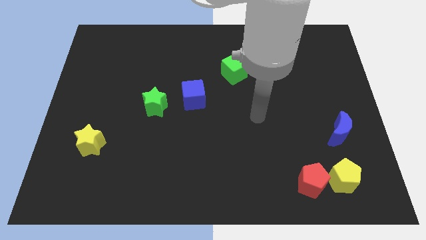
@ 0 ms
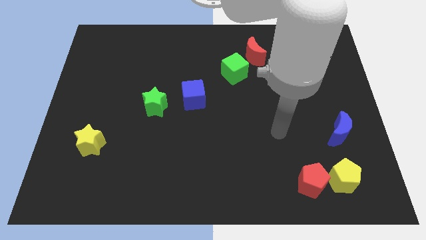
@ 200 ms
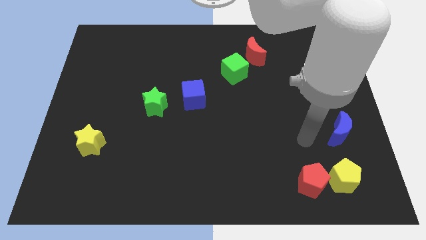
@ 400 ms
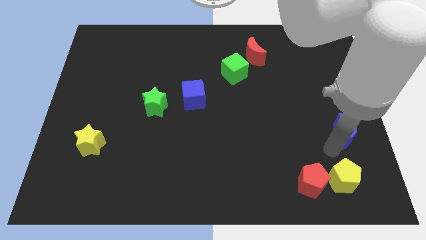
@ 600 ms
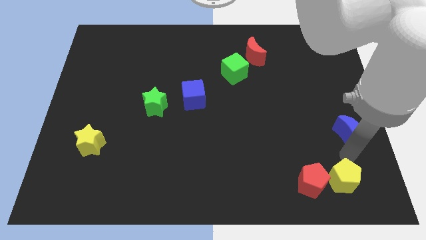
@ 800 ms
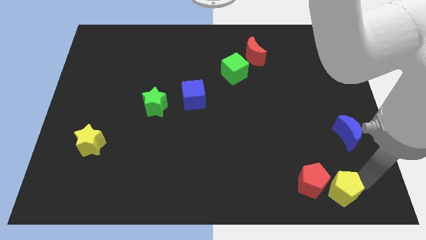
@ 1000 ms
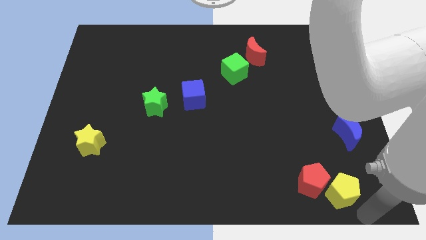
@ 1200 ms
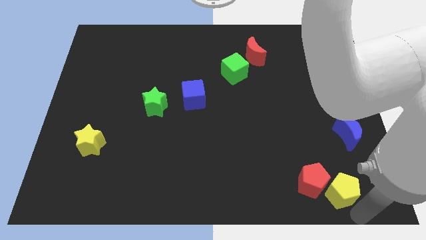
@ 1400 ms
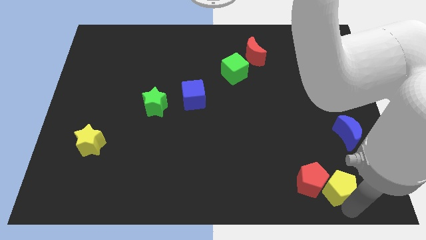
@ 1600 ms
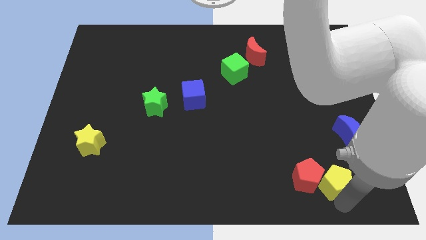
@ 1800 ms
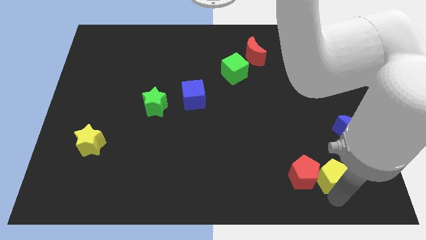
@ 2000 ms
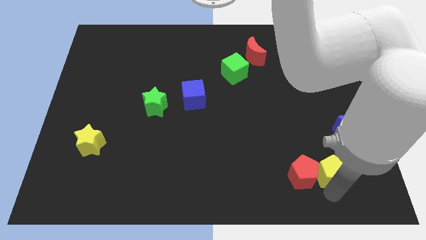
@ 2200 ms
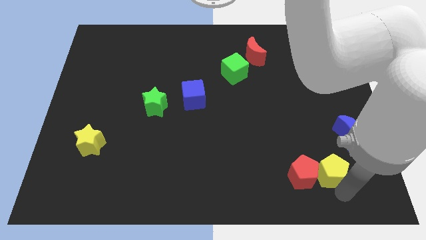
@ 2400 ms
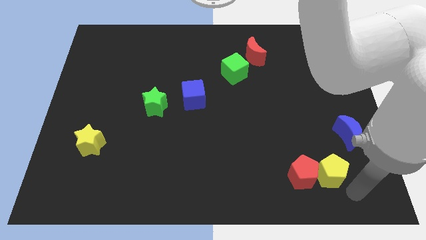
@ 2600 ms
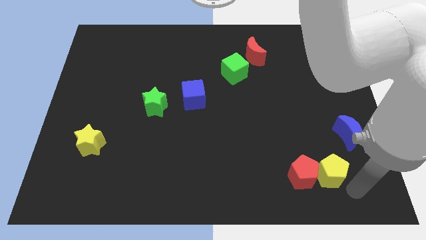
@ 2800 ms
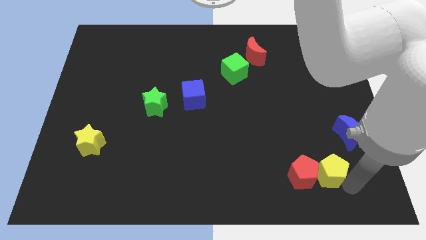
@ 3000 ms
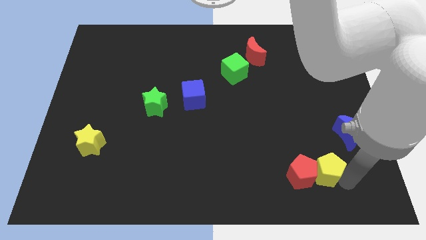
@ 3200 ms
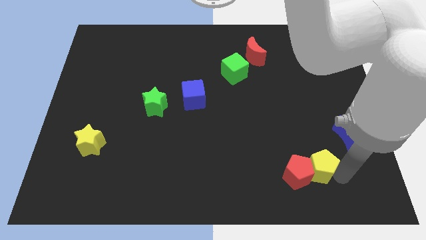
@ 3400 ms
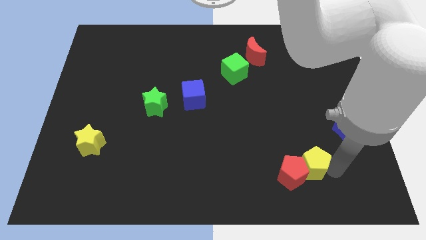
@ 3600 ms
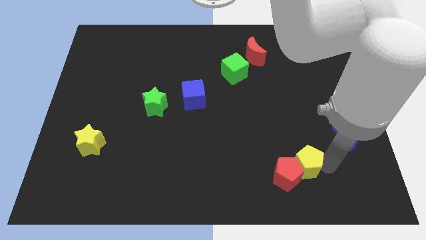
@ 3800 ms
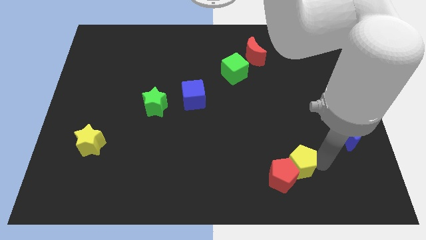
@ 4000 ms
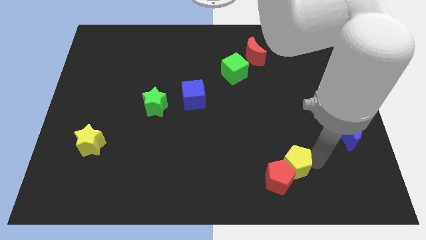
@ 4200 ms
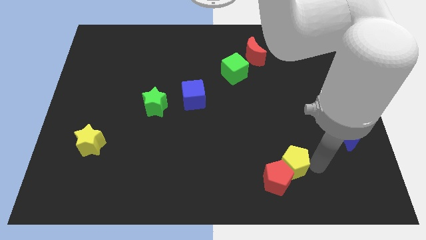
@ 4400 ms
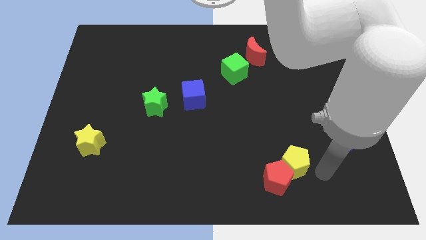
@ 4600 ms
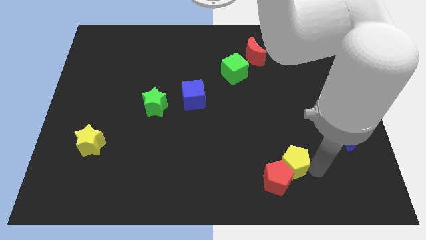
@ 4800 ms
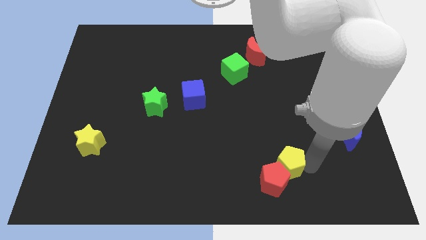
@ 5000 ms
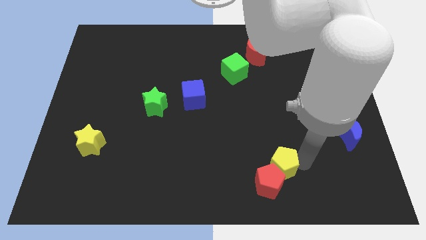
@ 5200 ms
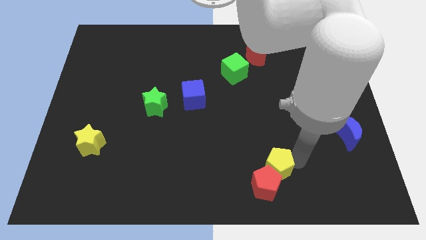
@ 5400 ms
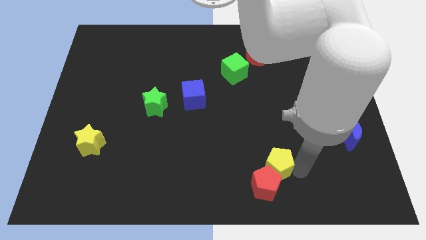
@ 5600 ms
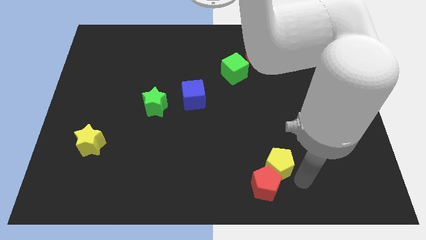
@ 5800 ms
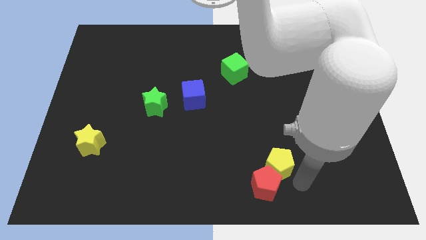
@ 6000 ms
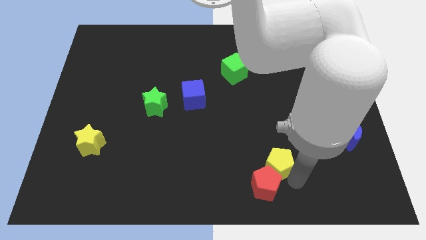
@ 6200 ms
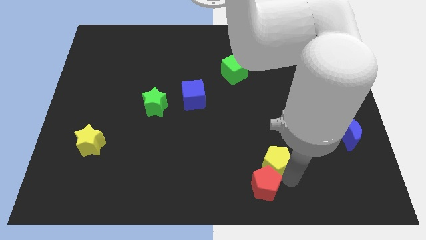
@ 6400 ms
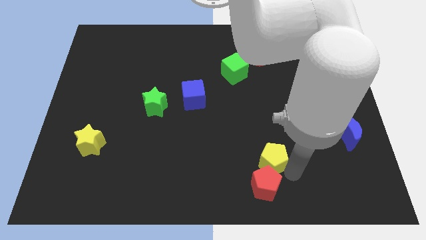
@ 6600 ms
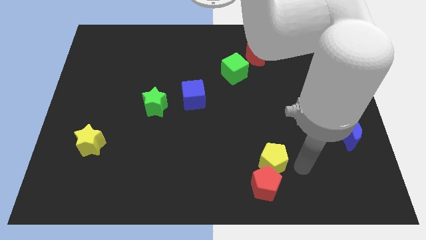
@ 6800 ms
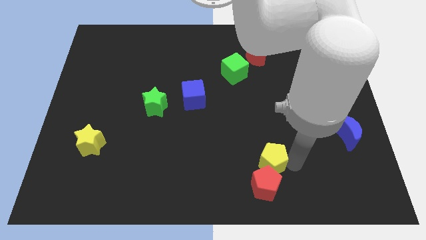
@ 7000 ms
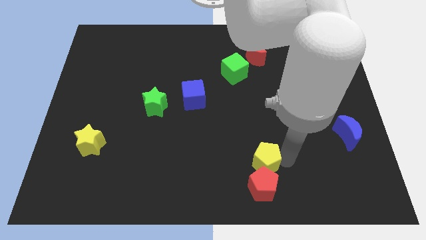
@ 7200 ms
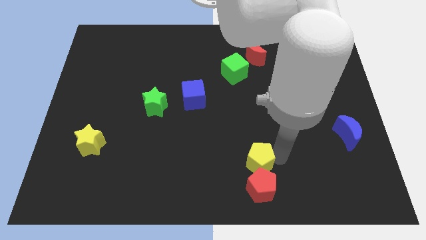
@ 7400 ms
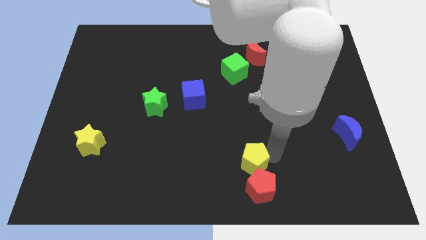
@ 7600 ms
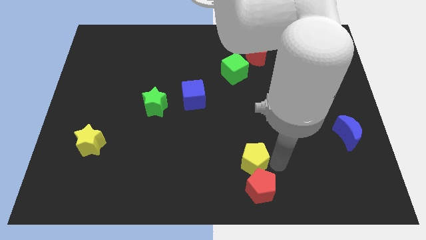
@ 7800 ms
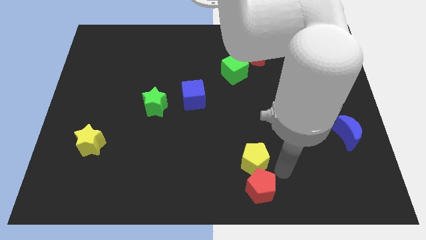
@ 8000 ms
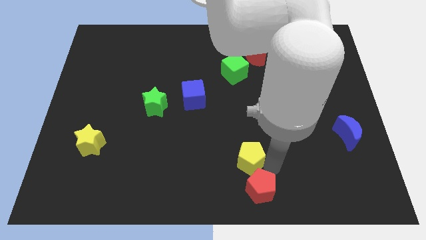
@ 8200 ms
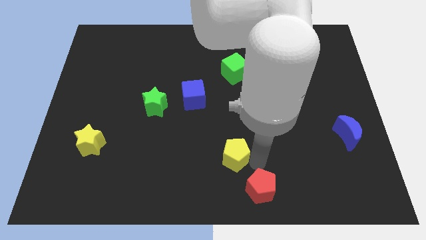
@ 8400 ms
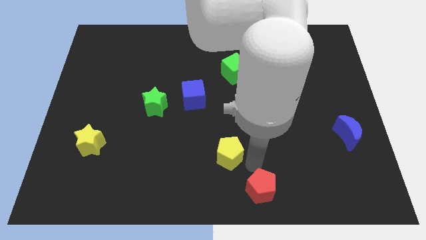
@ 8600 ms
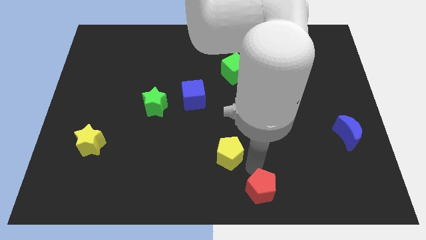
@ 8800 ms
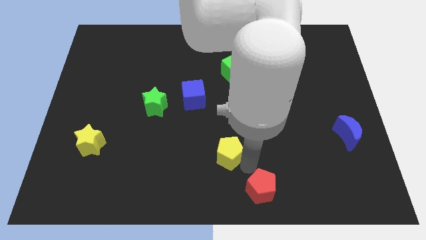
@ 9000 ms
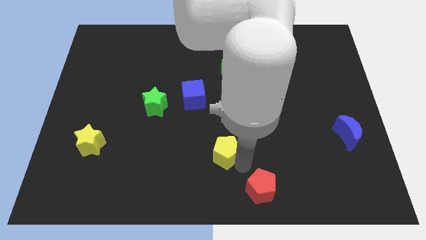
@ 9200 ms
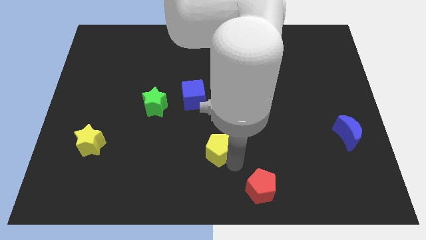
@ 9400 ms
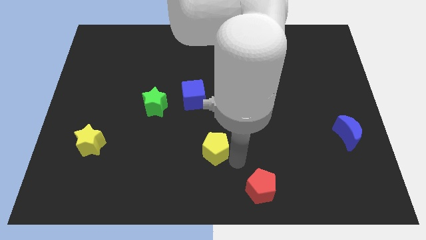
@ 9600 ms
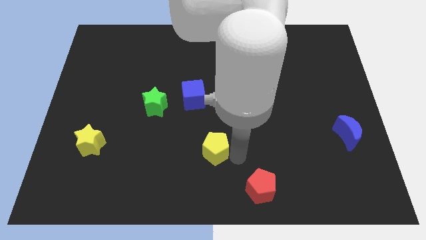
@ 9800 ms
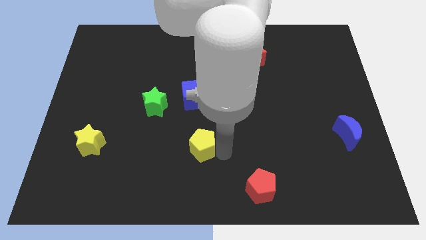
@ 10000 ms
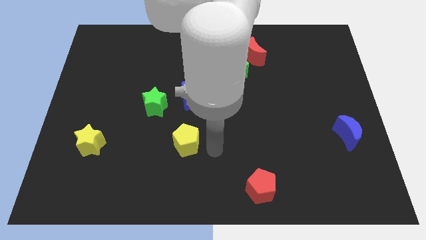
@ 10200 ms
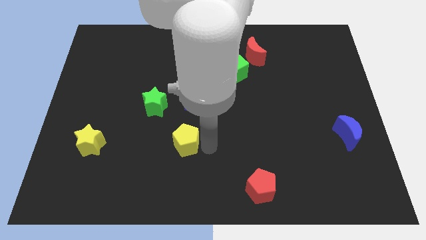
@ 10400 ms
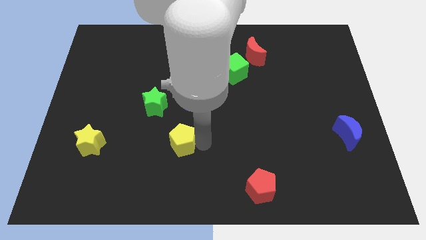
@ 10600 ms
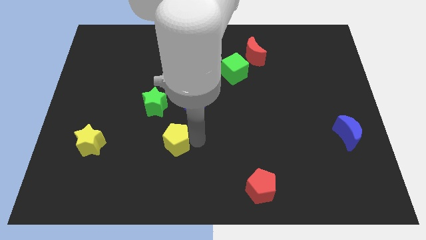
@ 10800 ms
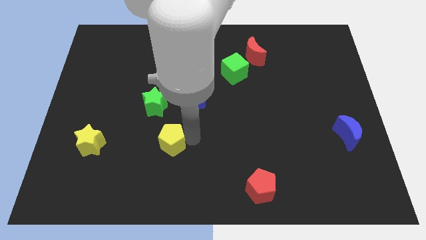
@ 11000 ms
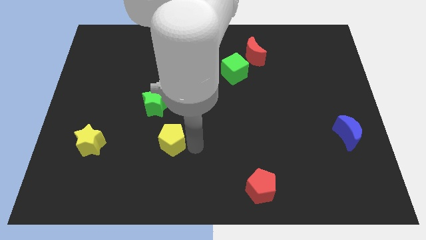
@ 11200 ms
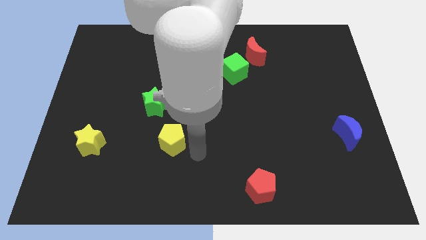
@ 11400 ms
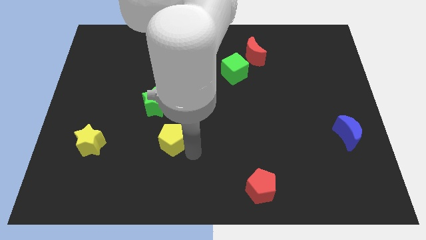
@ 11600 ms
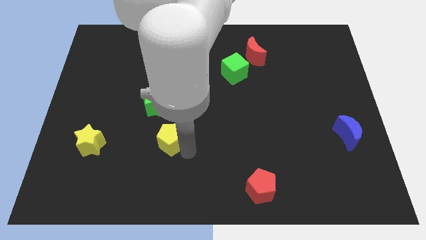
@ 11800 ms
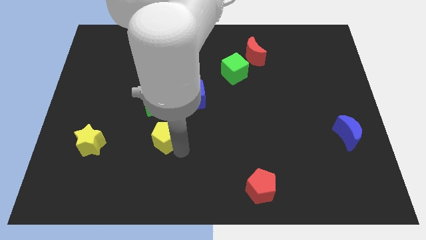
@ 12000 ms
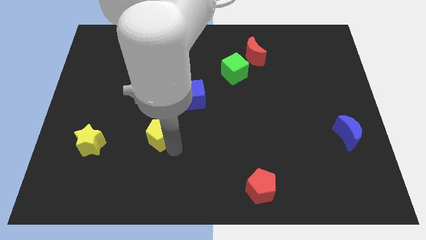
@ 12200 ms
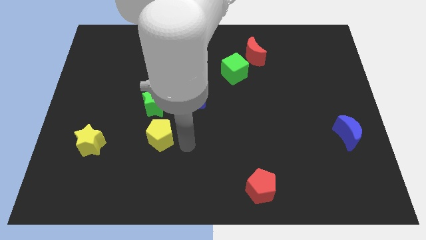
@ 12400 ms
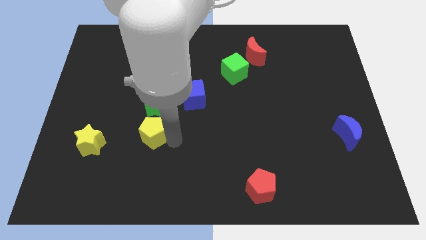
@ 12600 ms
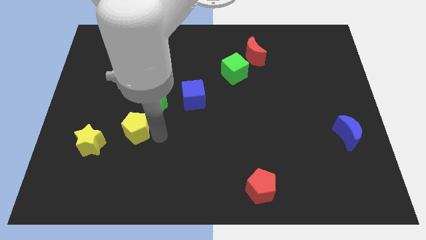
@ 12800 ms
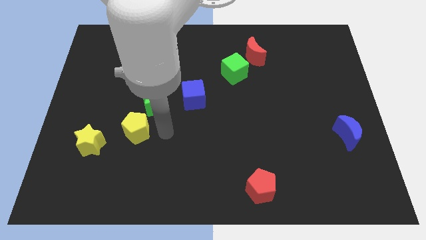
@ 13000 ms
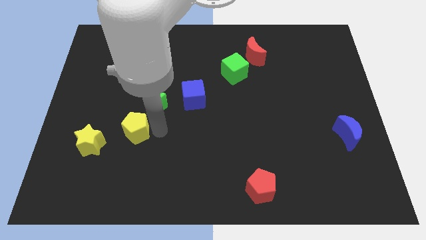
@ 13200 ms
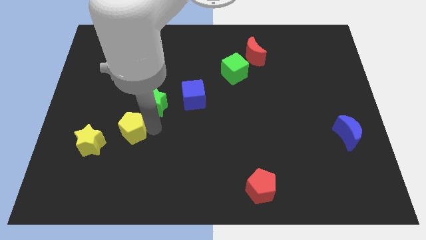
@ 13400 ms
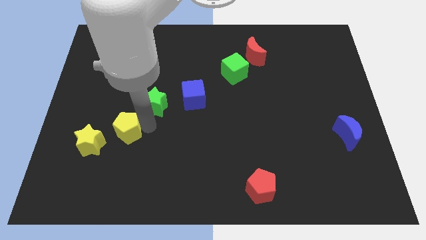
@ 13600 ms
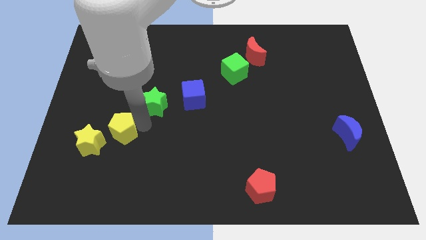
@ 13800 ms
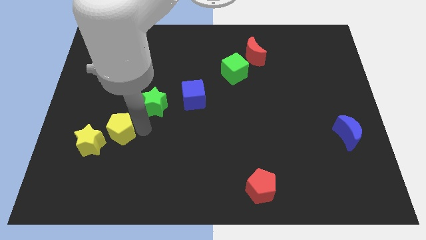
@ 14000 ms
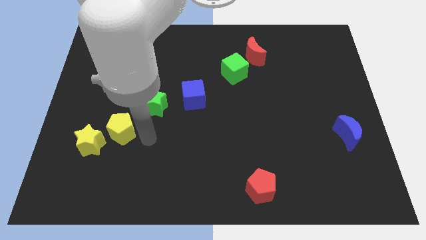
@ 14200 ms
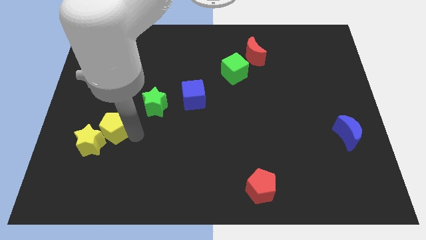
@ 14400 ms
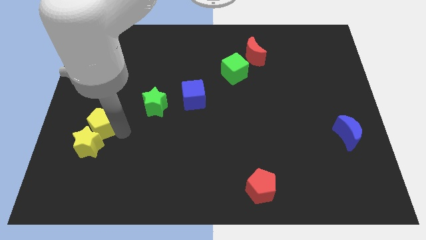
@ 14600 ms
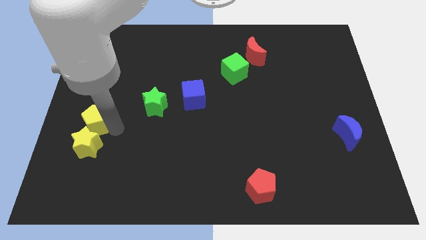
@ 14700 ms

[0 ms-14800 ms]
slide the yellow pentagon to the left side
